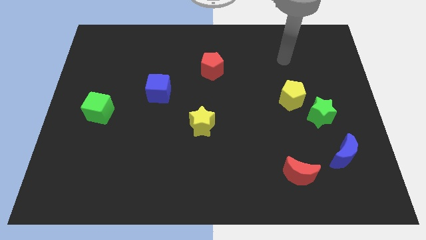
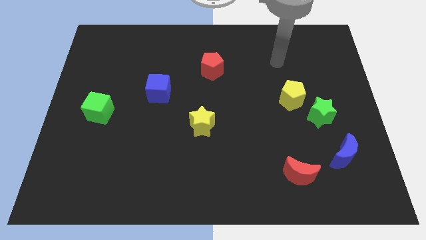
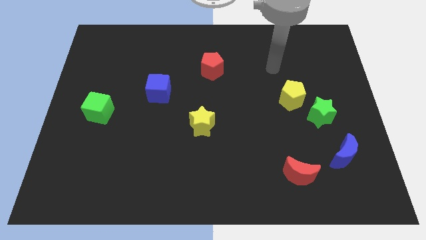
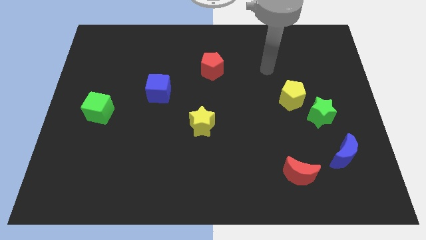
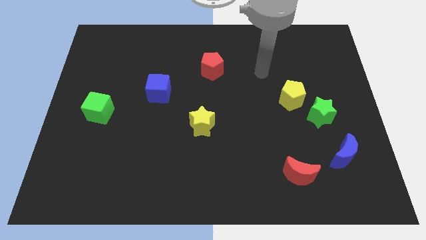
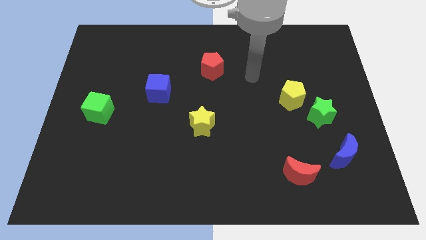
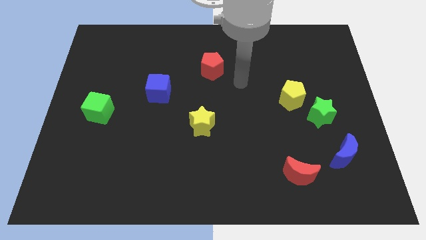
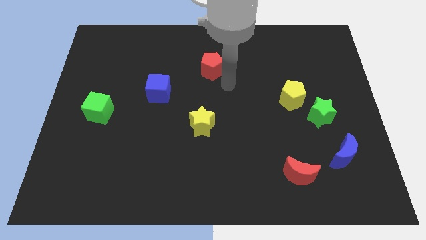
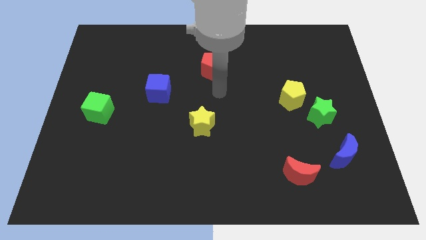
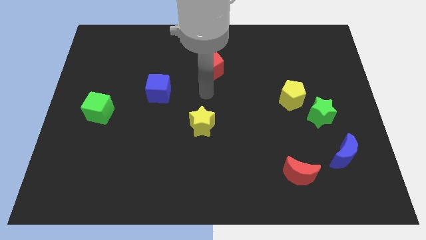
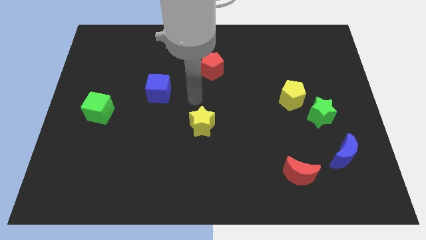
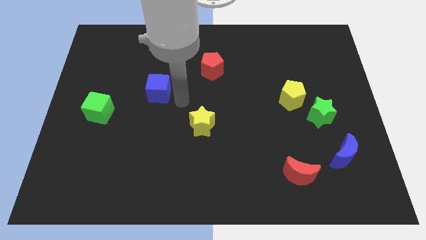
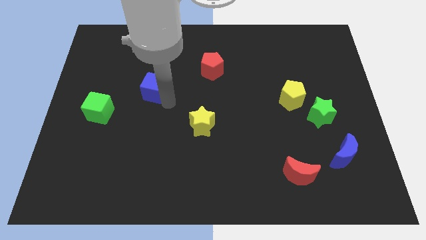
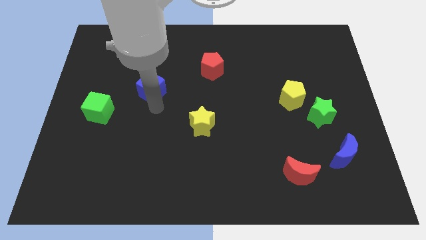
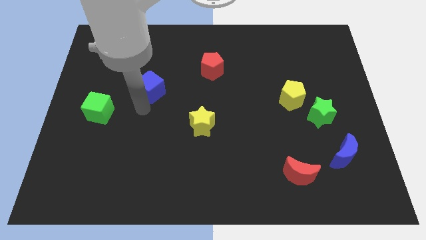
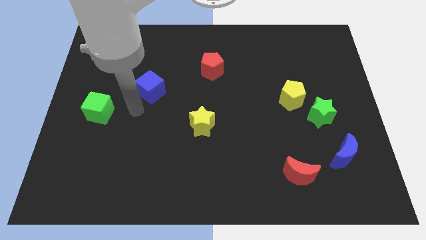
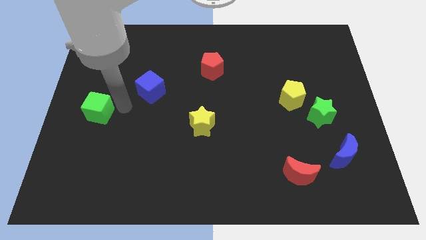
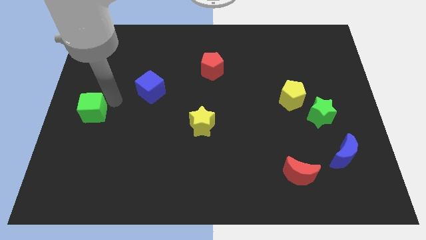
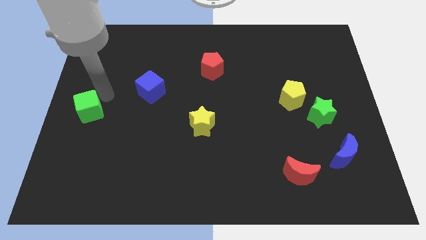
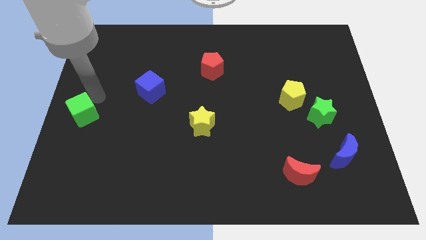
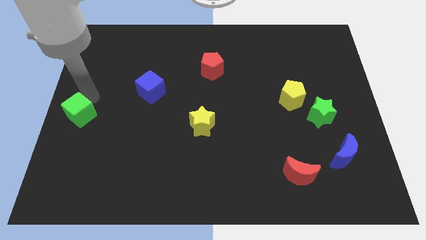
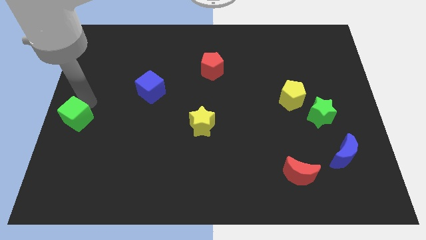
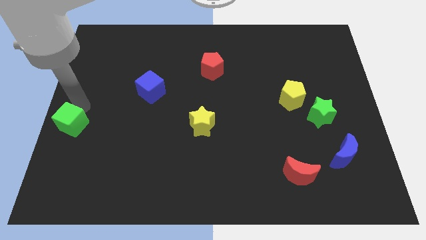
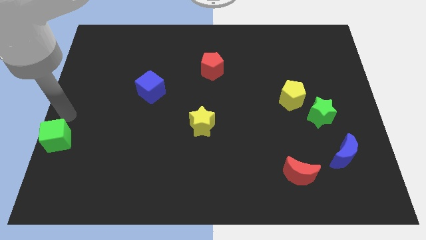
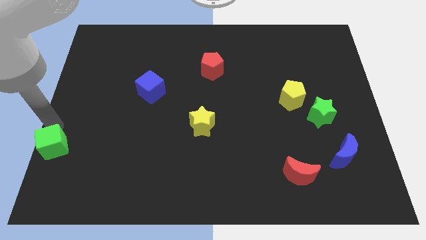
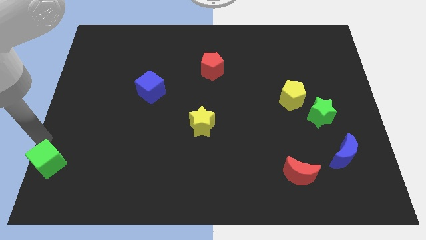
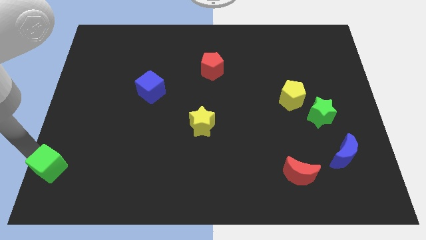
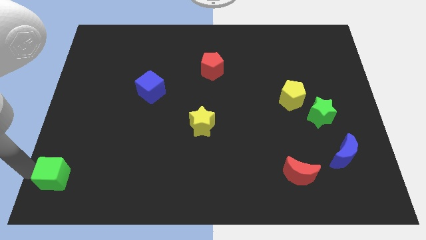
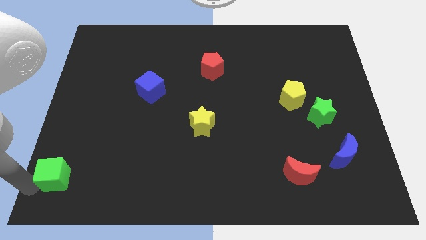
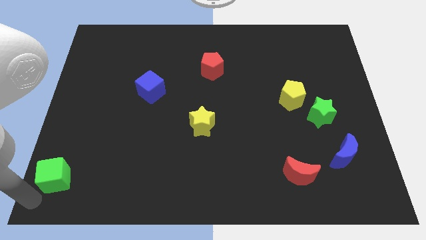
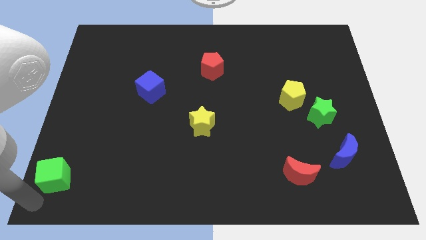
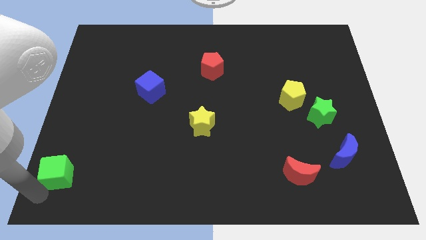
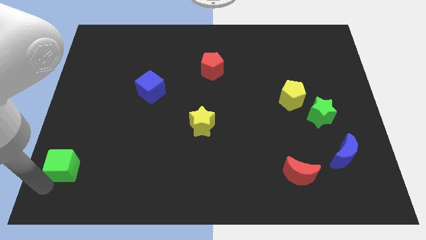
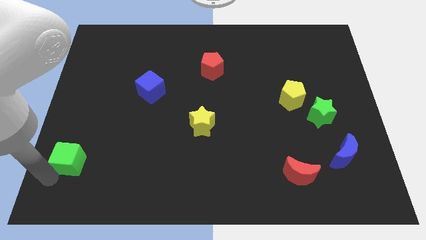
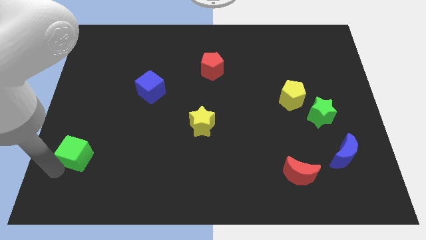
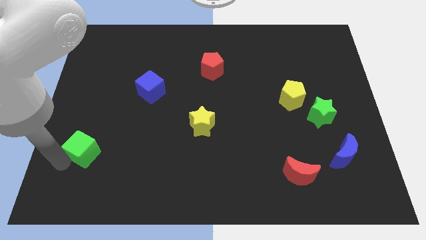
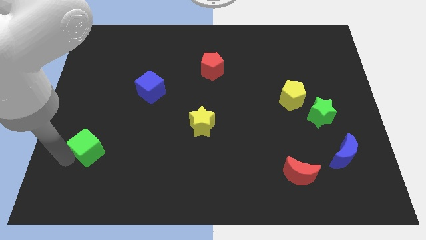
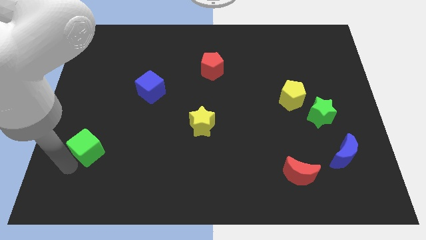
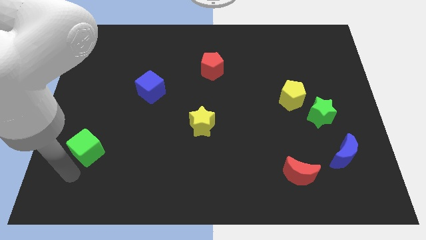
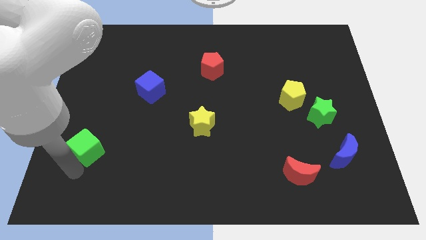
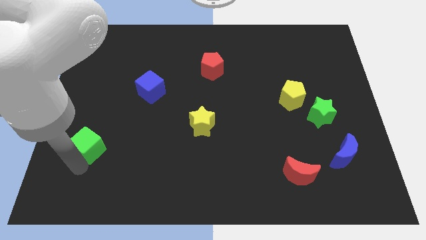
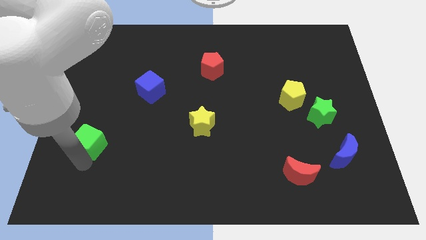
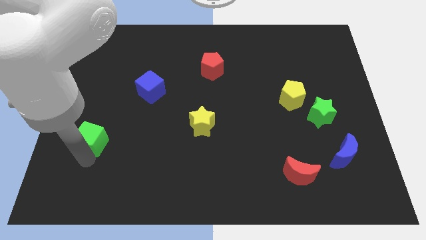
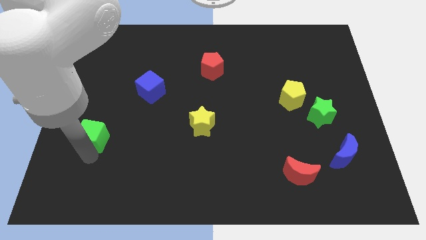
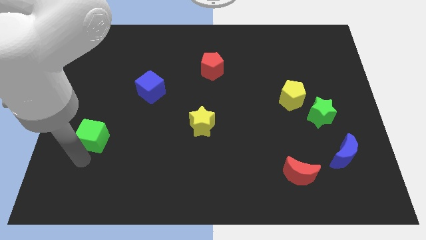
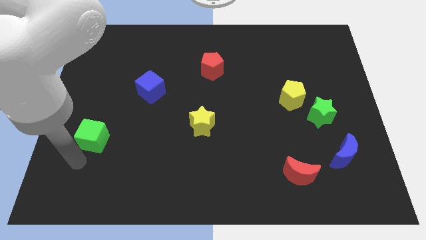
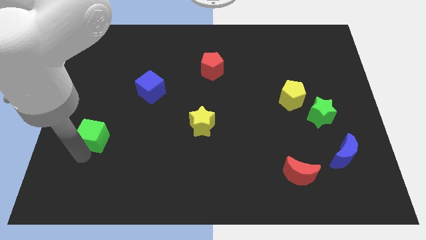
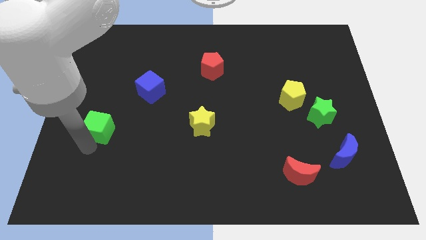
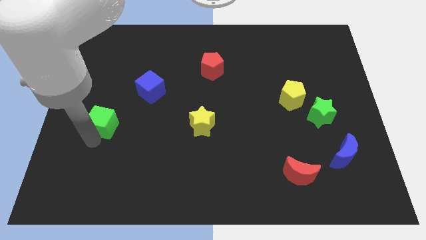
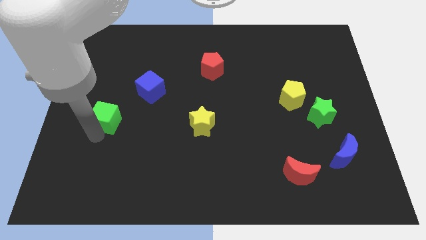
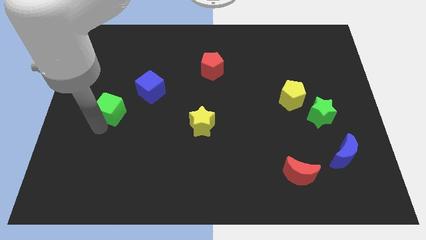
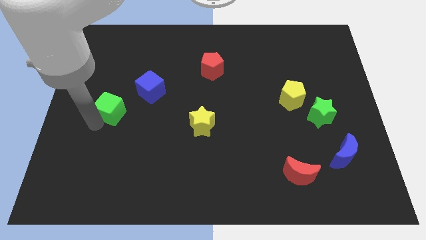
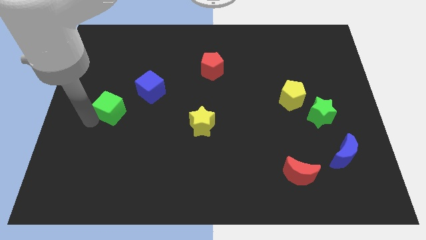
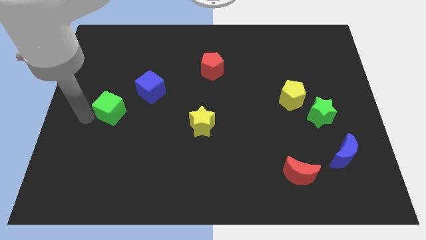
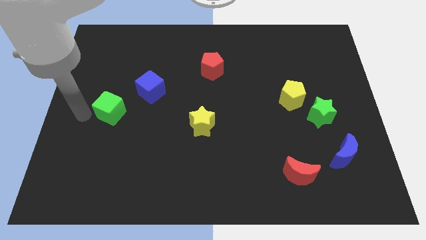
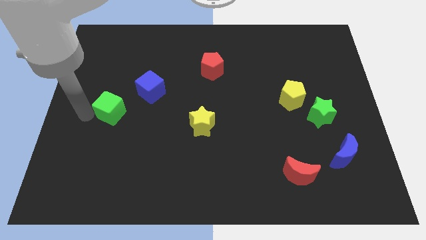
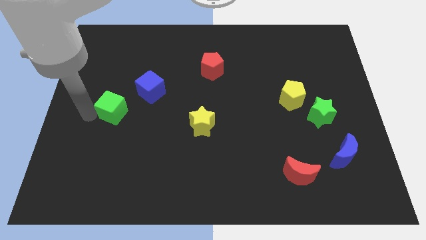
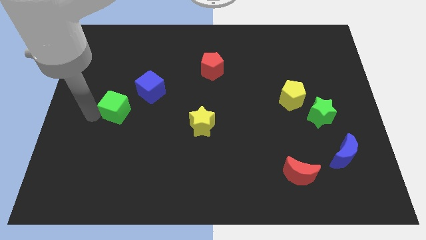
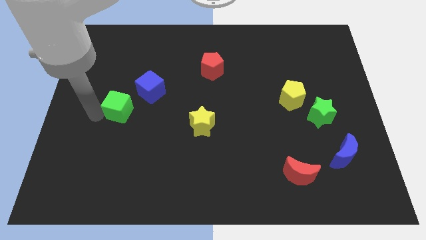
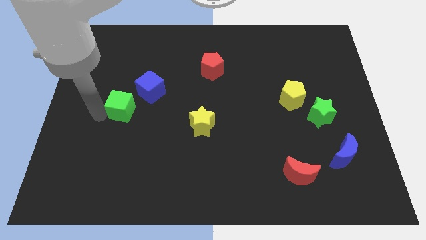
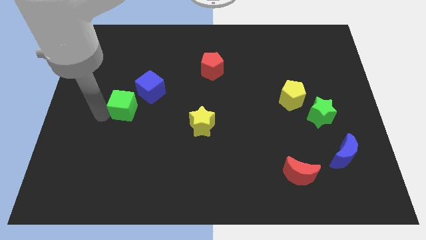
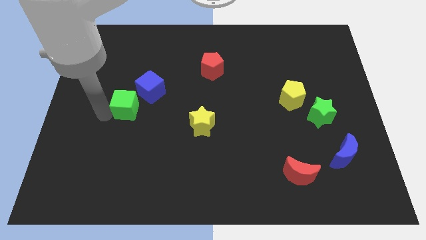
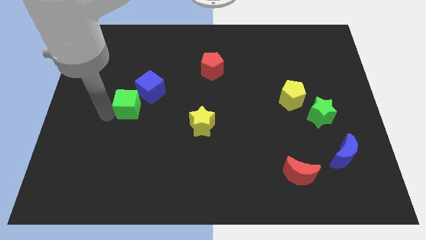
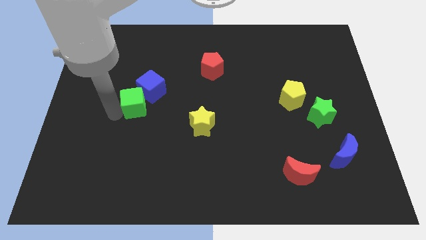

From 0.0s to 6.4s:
slightly slide the green cube to the right

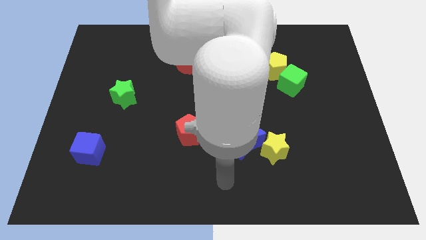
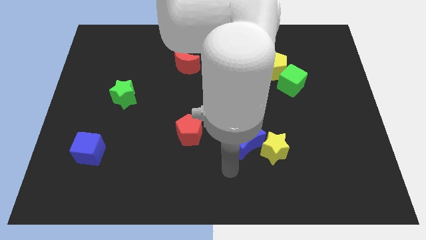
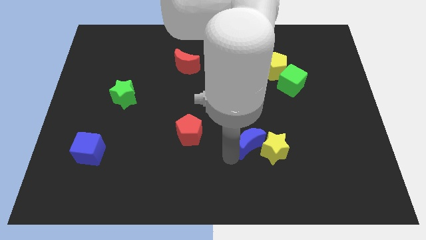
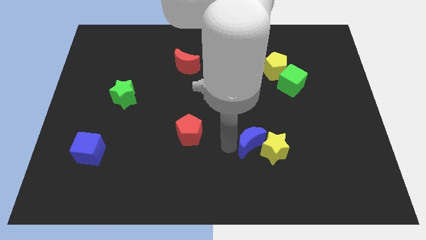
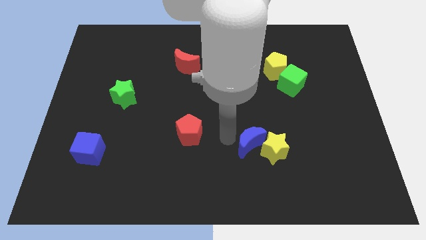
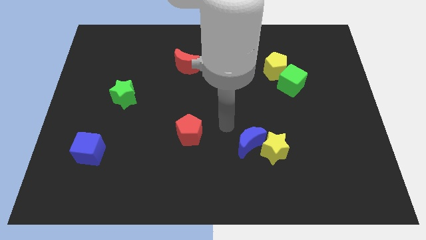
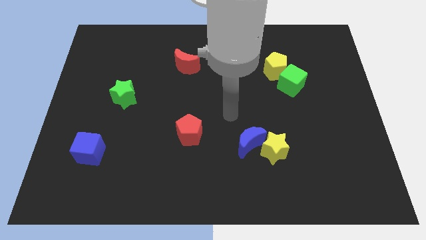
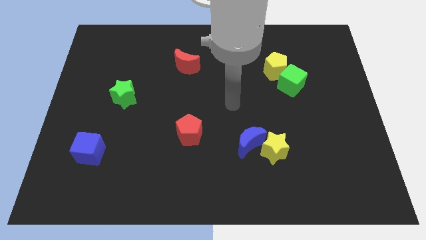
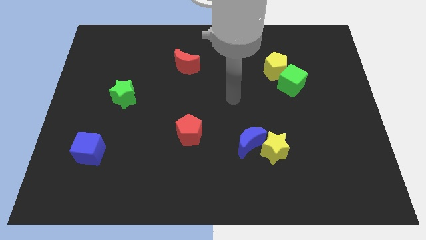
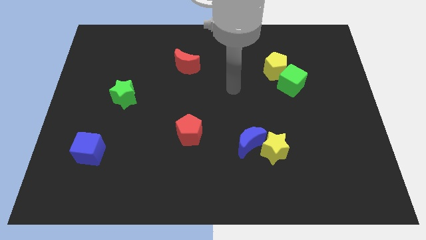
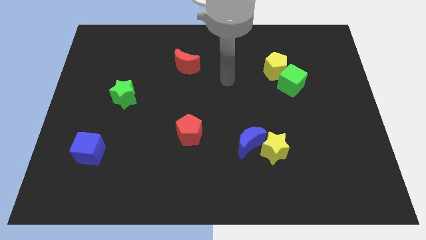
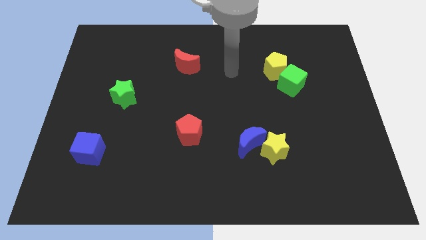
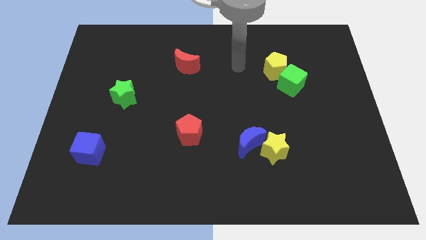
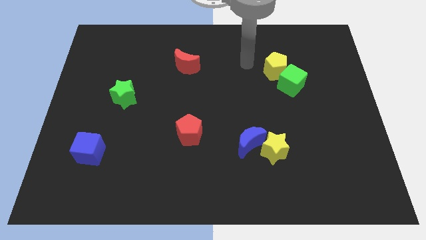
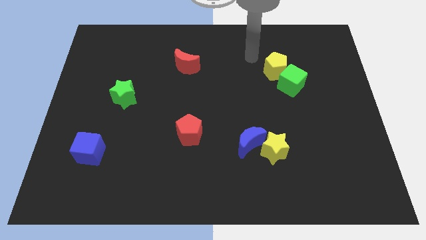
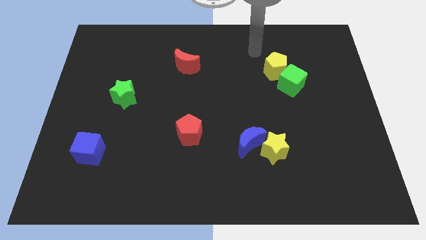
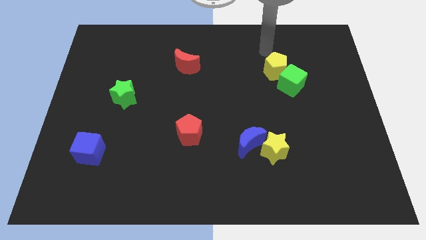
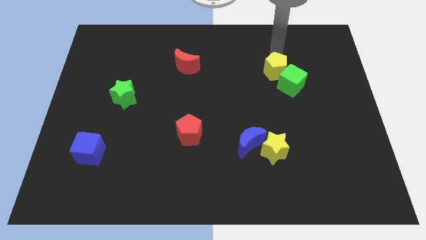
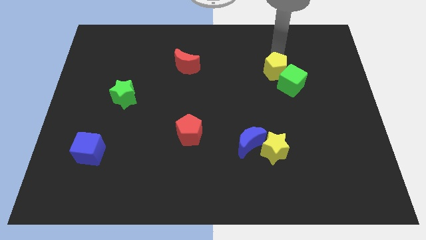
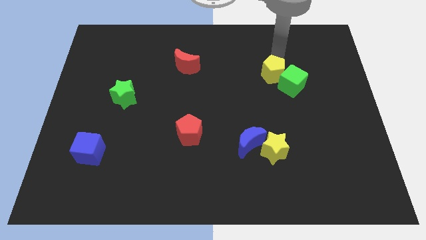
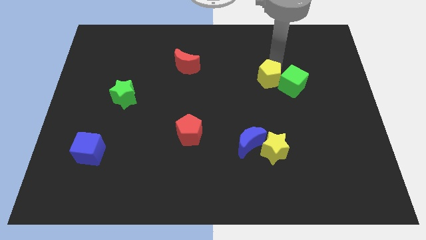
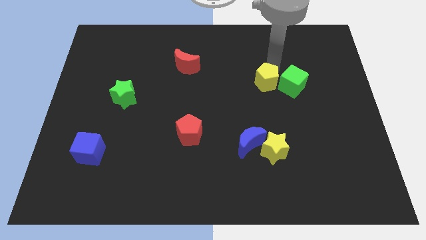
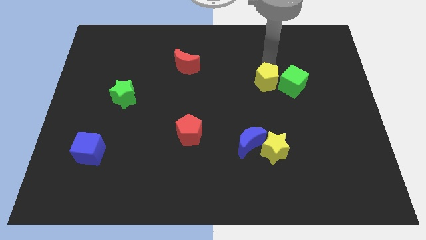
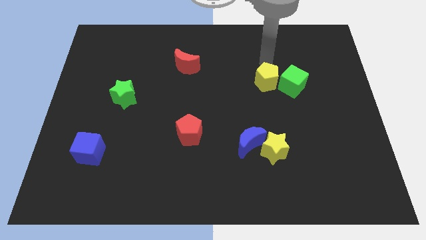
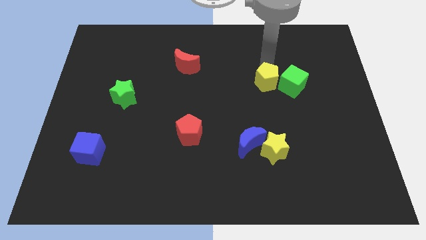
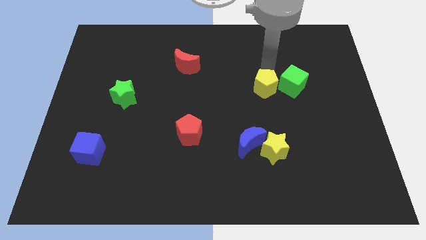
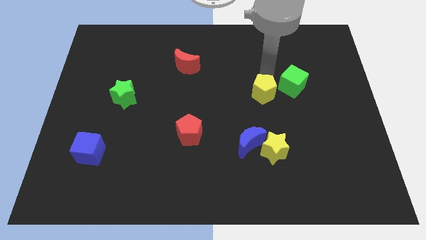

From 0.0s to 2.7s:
move the yellow pentagon a little downwards
